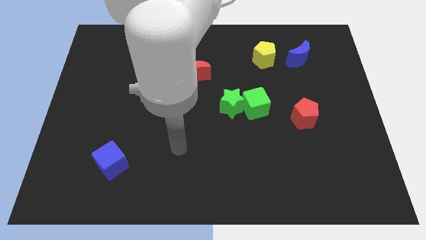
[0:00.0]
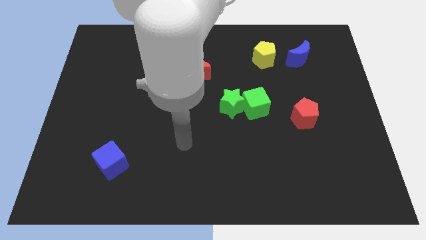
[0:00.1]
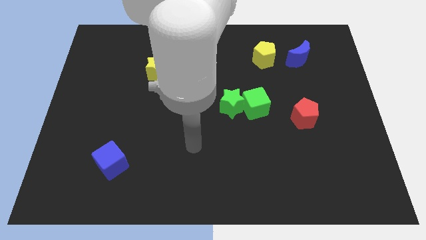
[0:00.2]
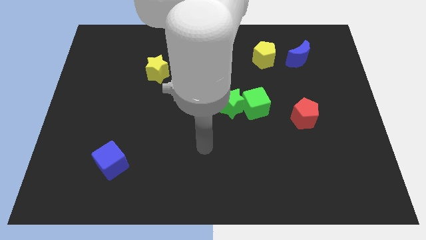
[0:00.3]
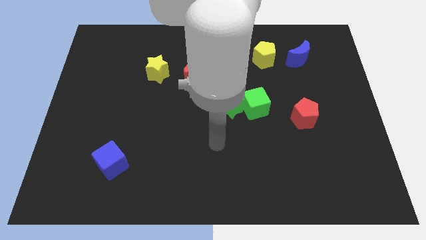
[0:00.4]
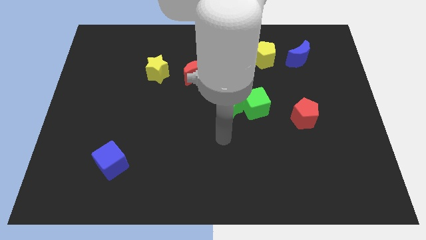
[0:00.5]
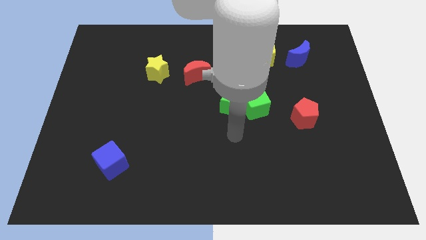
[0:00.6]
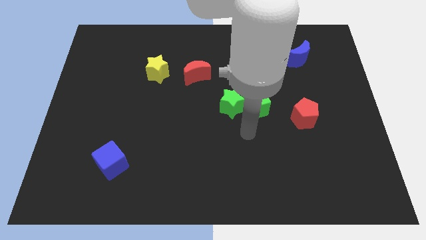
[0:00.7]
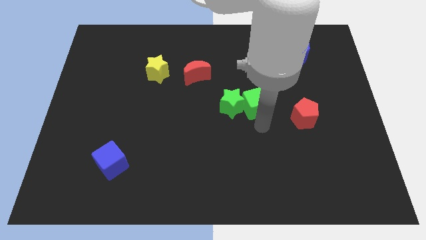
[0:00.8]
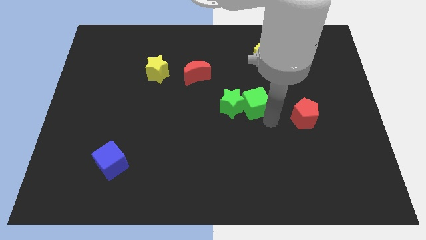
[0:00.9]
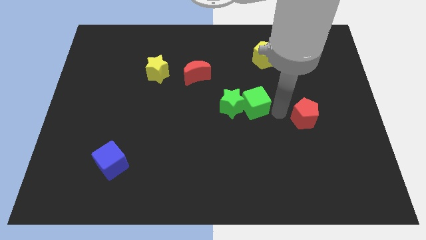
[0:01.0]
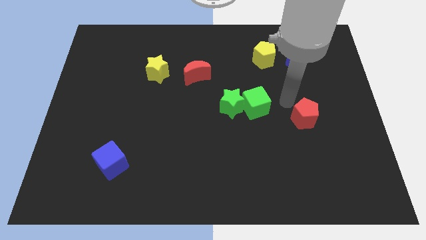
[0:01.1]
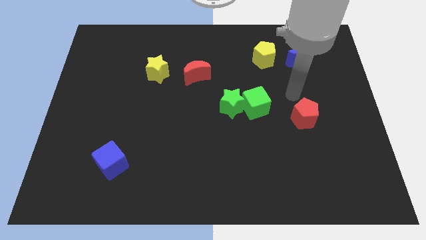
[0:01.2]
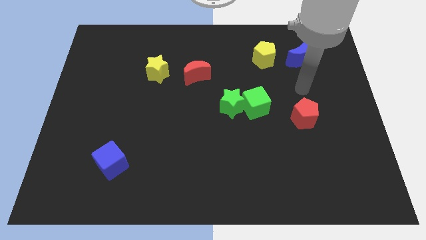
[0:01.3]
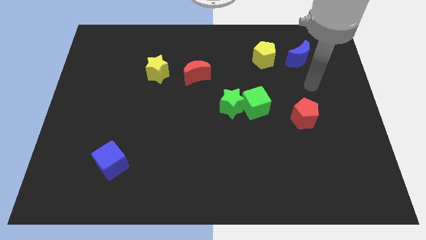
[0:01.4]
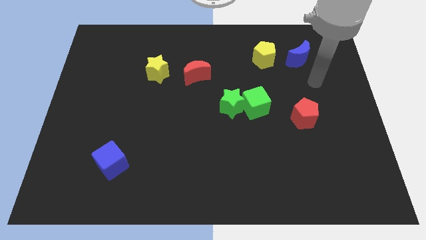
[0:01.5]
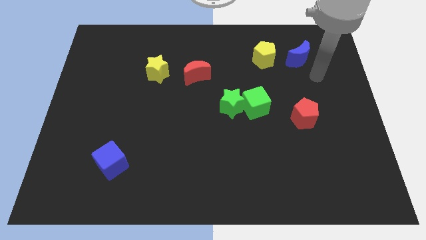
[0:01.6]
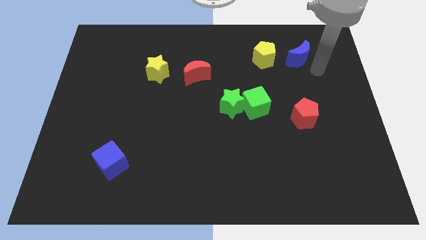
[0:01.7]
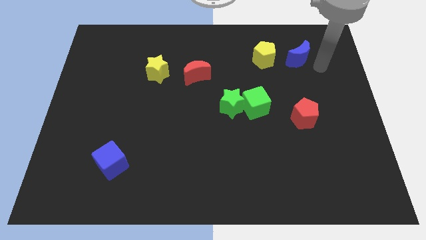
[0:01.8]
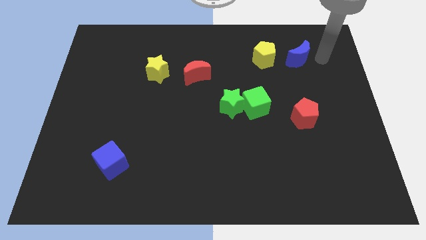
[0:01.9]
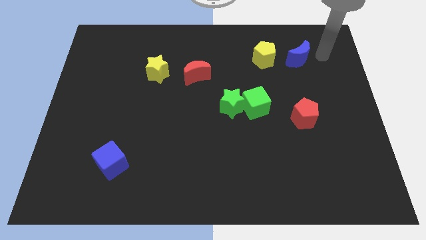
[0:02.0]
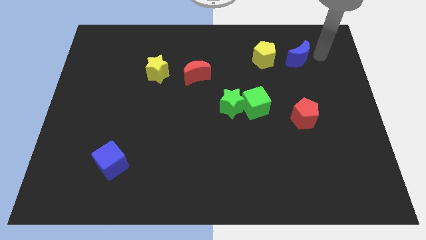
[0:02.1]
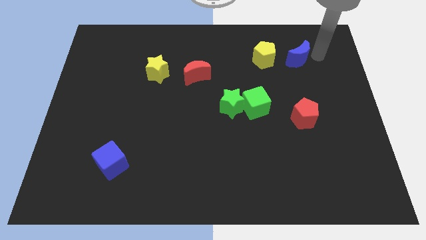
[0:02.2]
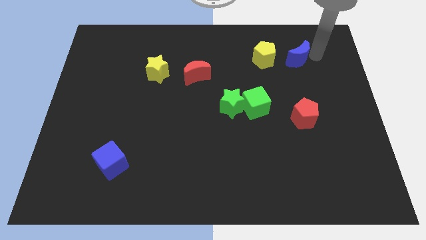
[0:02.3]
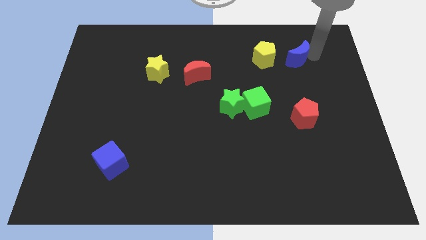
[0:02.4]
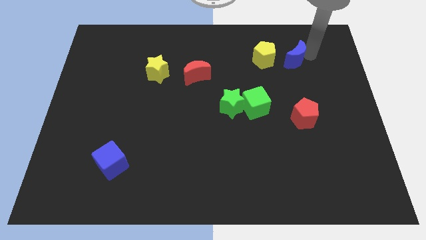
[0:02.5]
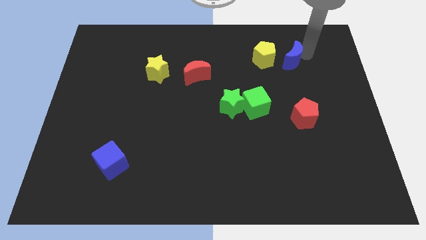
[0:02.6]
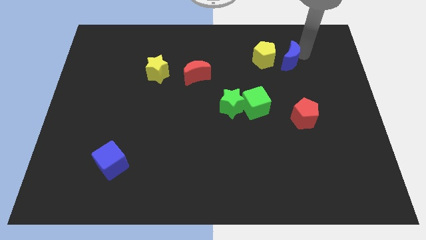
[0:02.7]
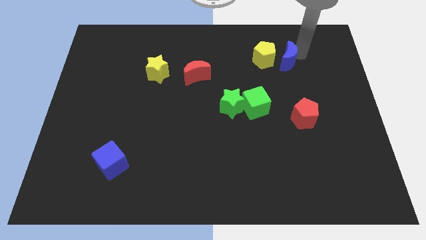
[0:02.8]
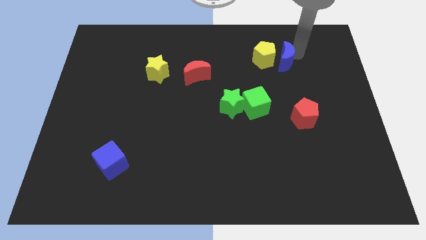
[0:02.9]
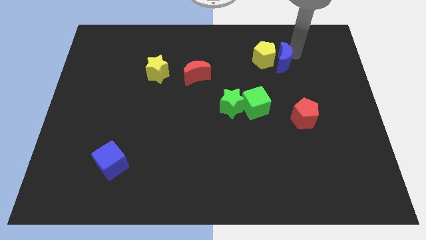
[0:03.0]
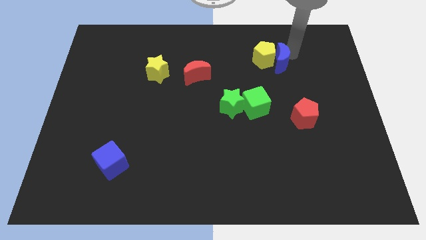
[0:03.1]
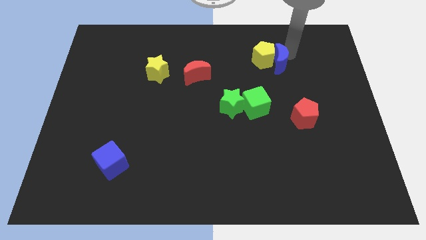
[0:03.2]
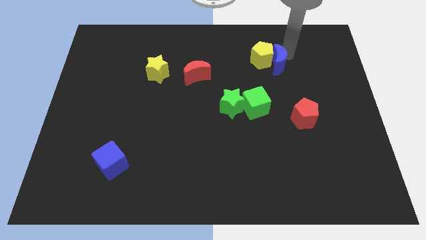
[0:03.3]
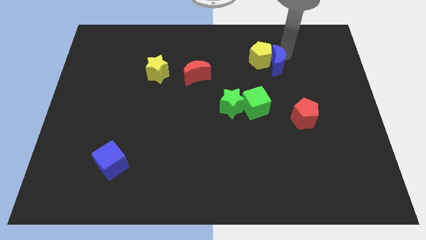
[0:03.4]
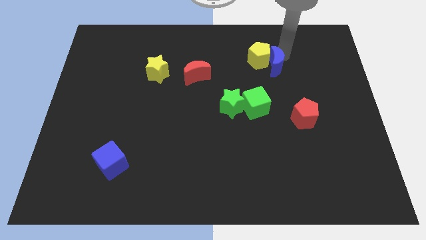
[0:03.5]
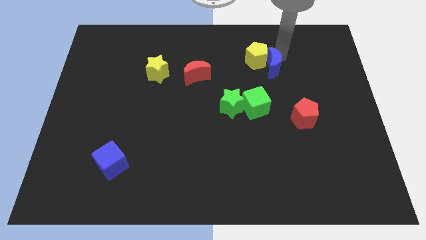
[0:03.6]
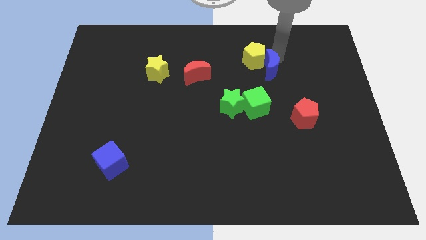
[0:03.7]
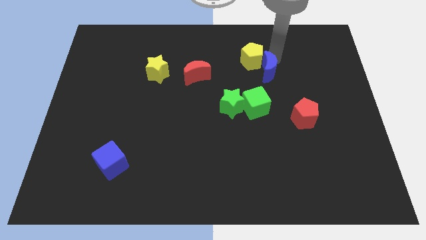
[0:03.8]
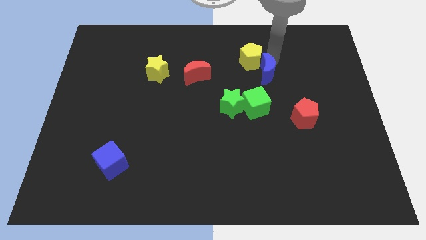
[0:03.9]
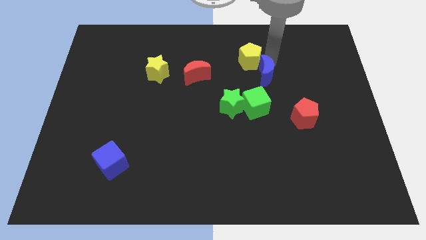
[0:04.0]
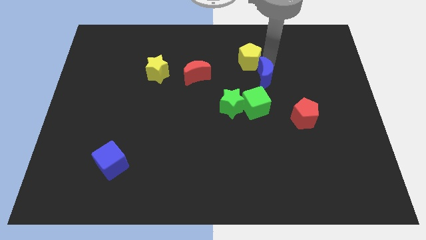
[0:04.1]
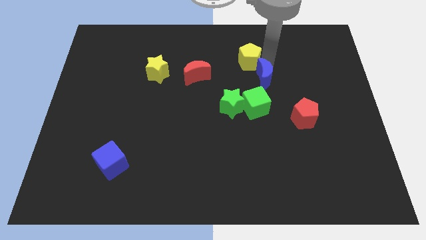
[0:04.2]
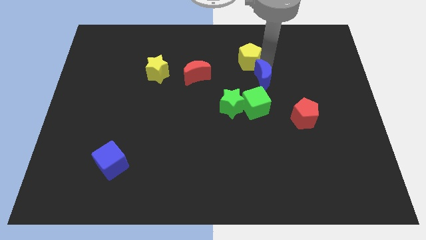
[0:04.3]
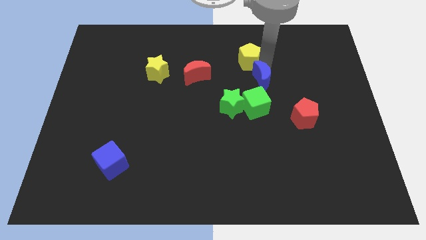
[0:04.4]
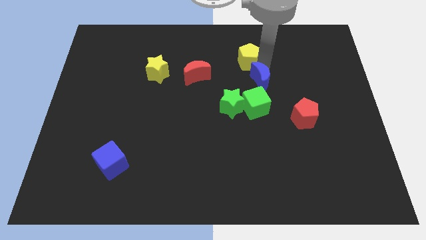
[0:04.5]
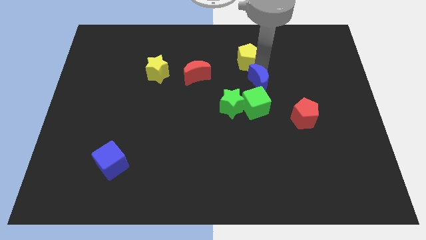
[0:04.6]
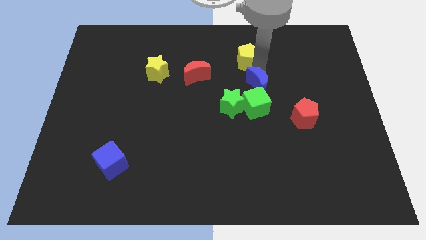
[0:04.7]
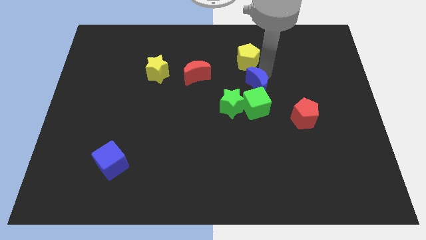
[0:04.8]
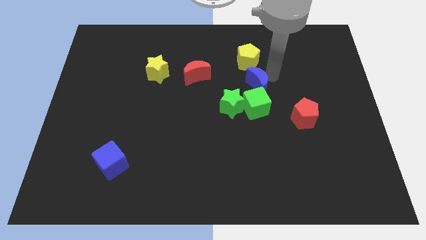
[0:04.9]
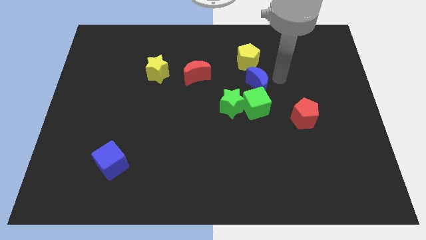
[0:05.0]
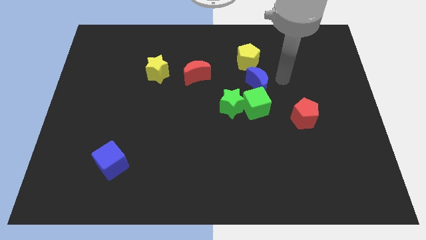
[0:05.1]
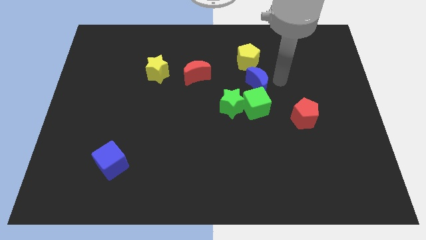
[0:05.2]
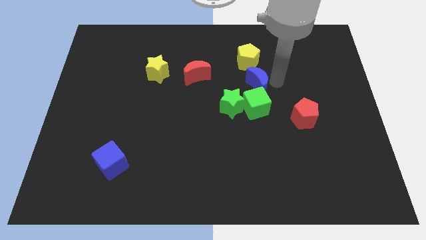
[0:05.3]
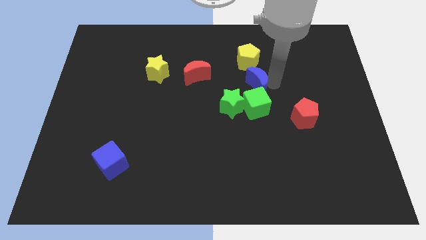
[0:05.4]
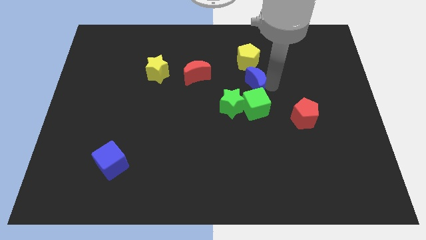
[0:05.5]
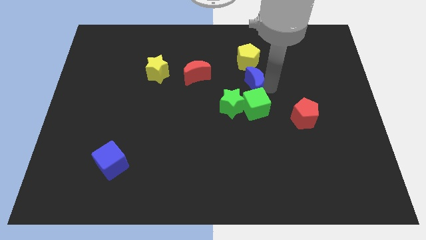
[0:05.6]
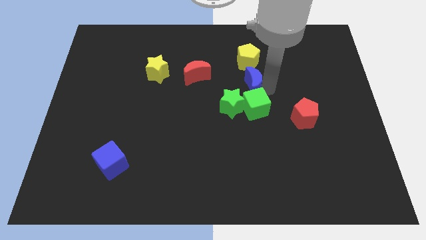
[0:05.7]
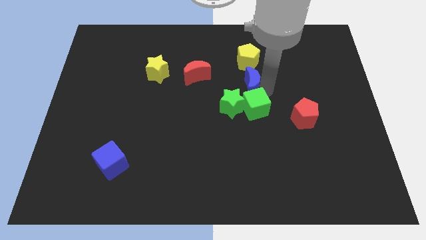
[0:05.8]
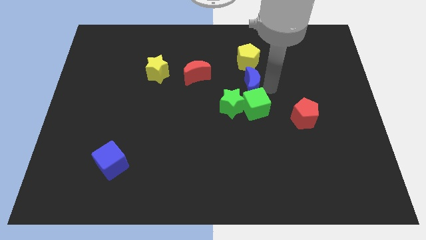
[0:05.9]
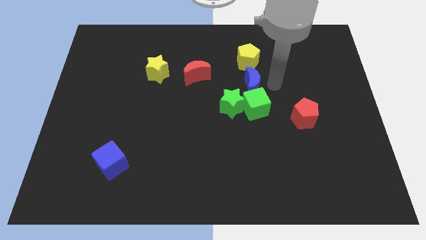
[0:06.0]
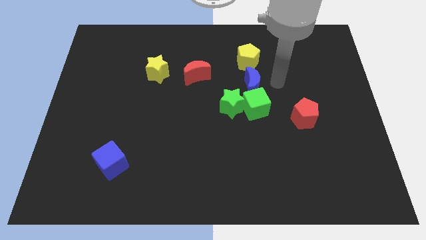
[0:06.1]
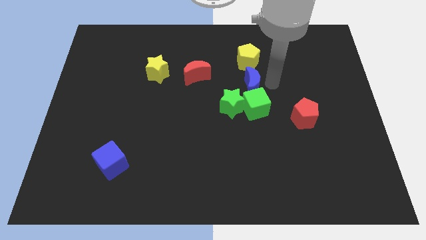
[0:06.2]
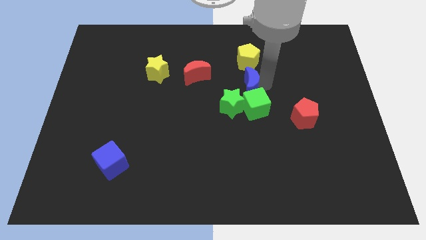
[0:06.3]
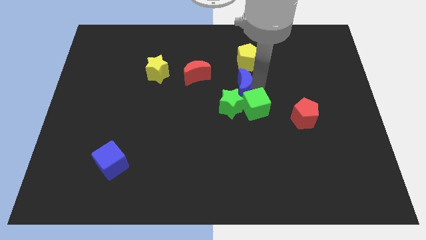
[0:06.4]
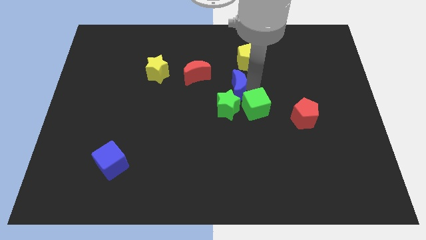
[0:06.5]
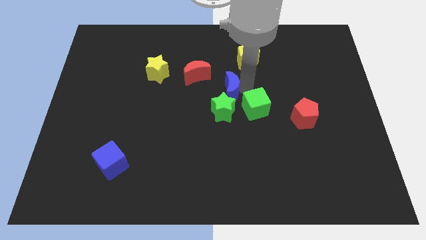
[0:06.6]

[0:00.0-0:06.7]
push the blue moon diagonally downwards and to the left

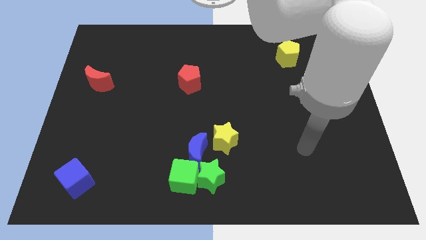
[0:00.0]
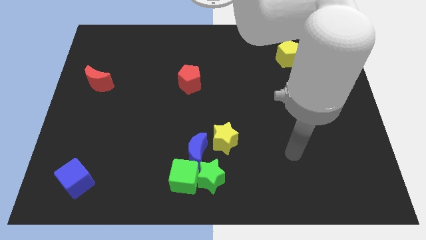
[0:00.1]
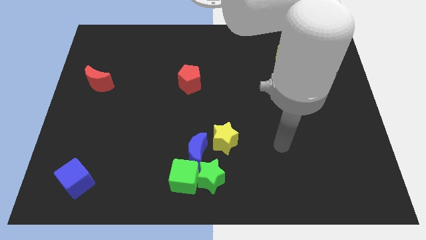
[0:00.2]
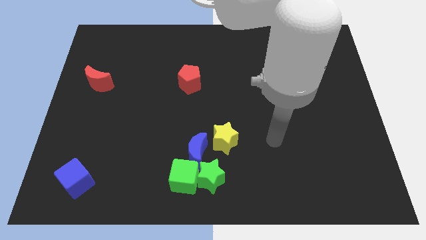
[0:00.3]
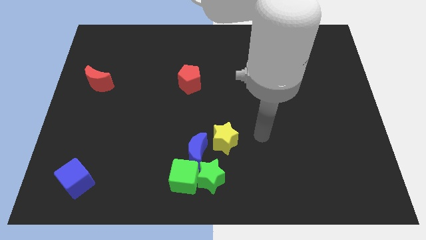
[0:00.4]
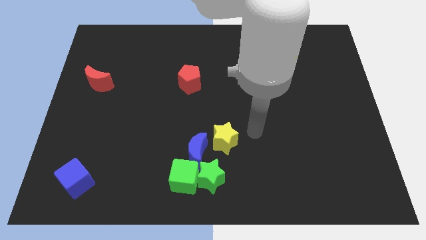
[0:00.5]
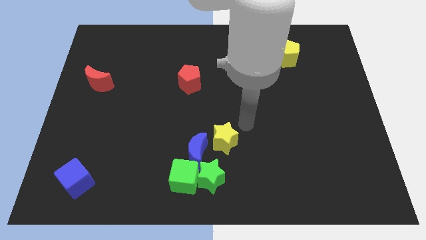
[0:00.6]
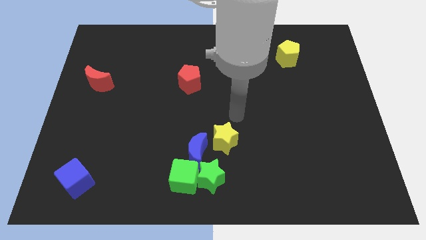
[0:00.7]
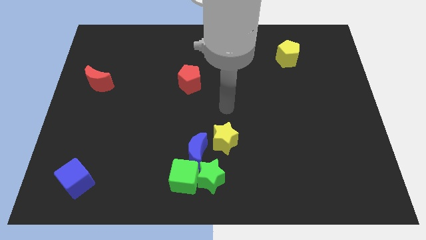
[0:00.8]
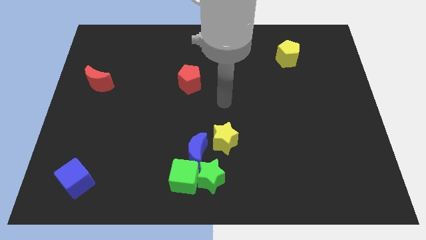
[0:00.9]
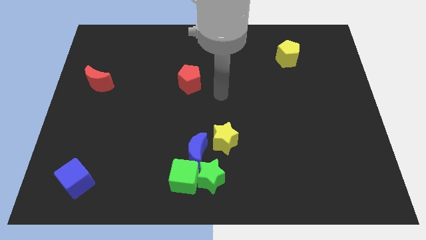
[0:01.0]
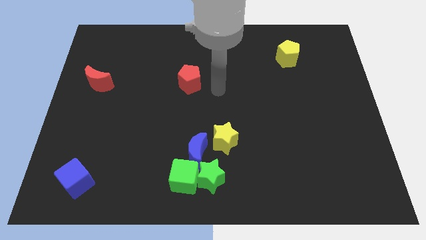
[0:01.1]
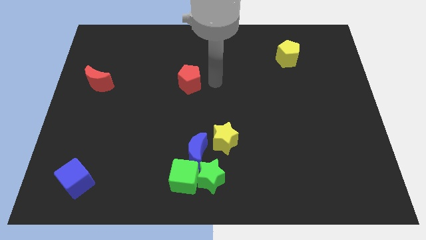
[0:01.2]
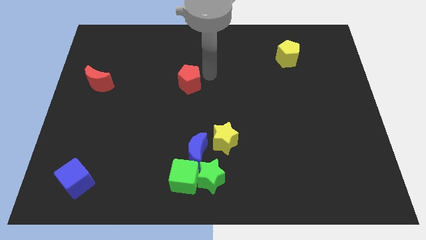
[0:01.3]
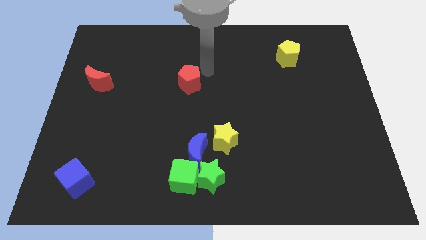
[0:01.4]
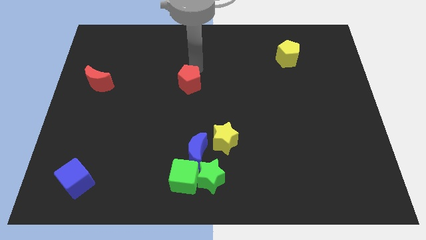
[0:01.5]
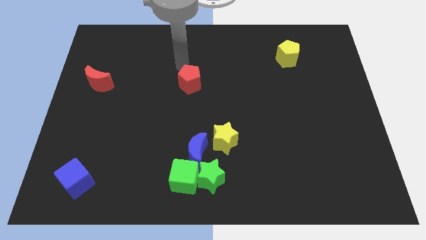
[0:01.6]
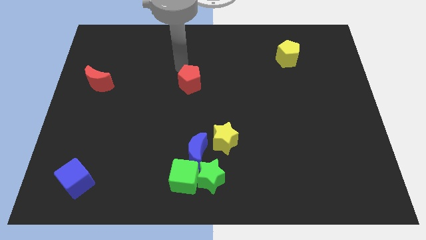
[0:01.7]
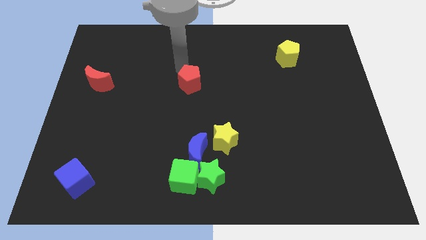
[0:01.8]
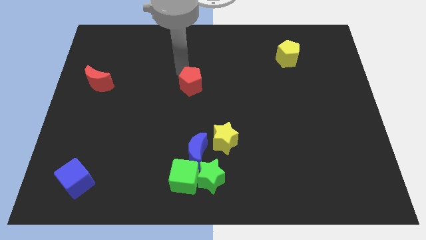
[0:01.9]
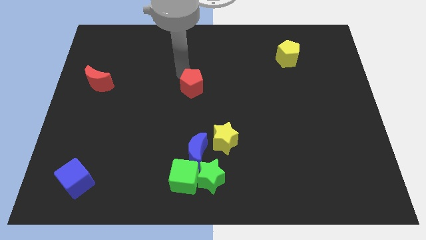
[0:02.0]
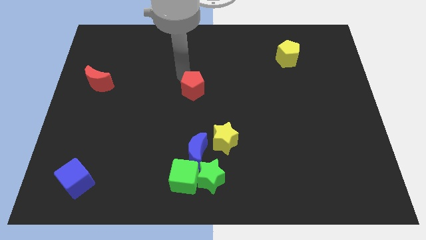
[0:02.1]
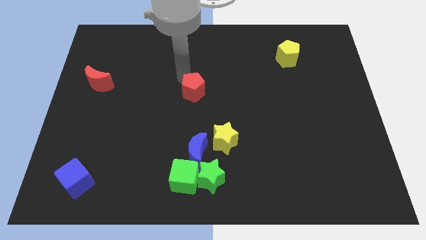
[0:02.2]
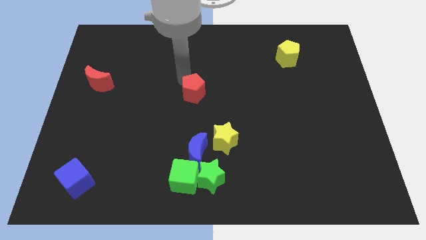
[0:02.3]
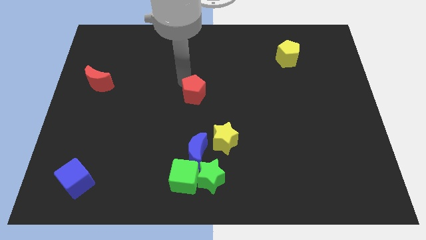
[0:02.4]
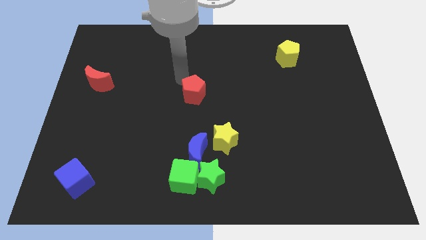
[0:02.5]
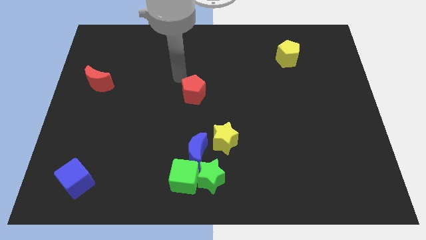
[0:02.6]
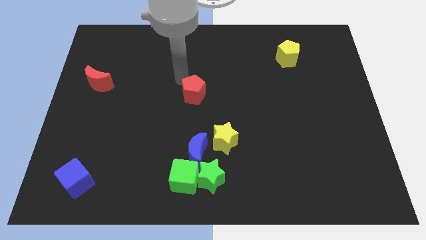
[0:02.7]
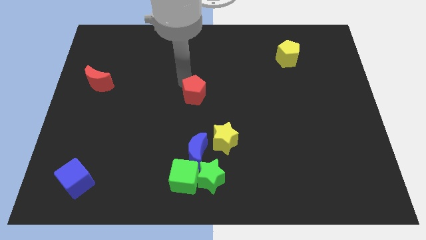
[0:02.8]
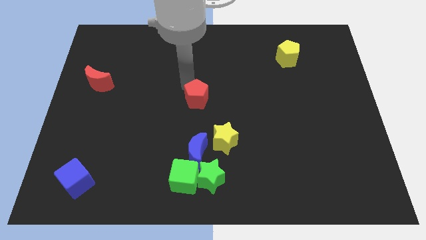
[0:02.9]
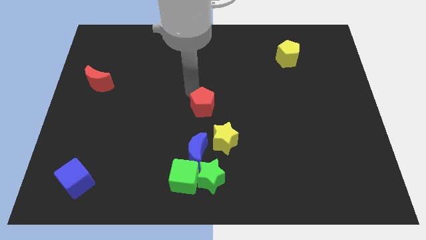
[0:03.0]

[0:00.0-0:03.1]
slightly push the red pentagon down and right
